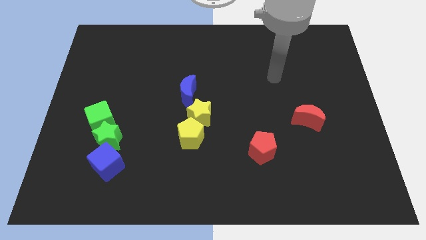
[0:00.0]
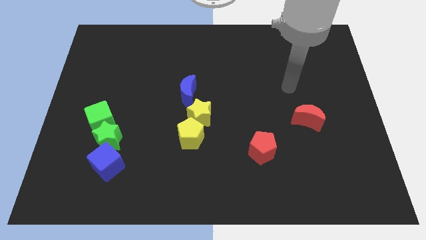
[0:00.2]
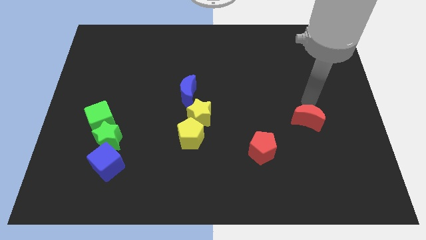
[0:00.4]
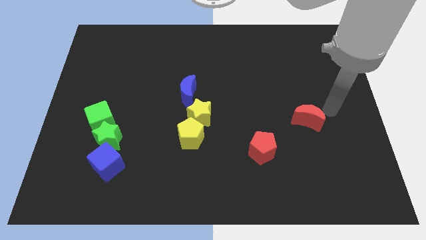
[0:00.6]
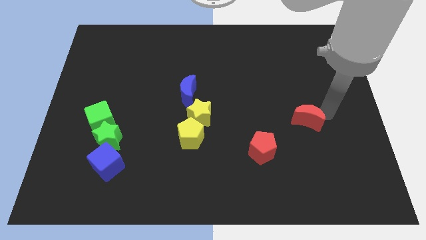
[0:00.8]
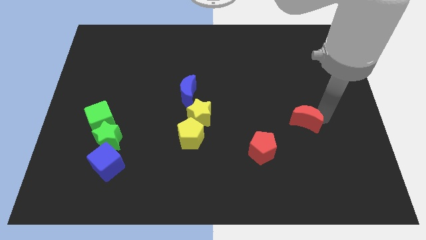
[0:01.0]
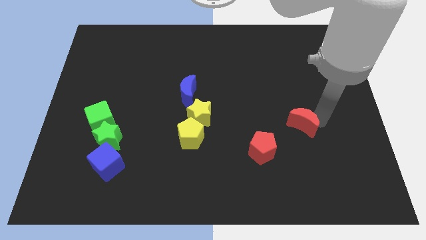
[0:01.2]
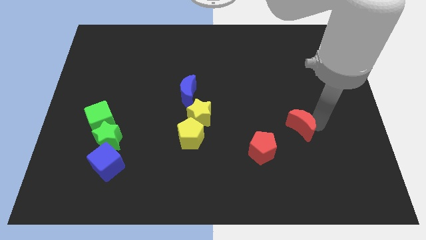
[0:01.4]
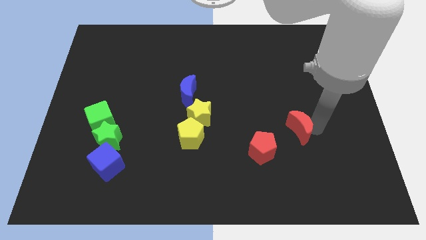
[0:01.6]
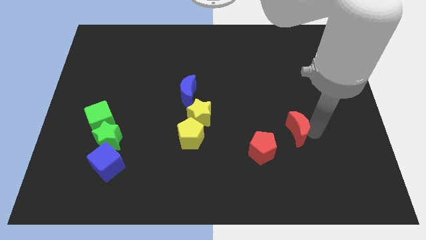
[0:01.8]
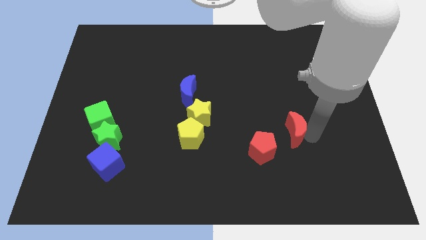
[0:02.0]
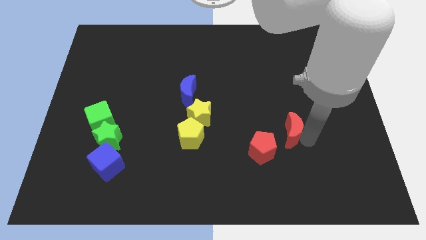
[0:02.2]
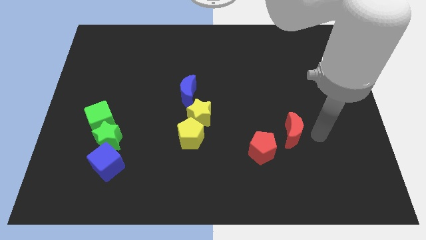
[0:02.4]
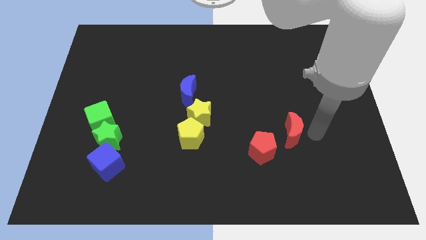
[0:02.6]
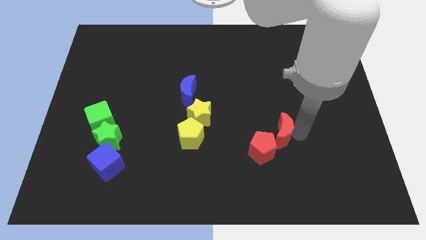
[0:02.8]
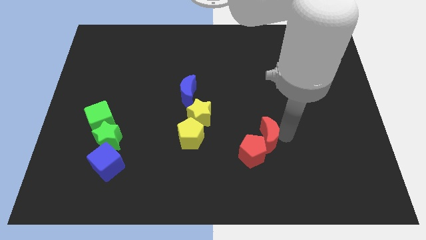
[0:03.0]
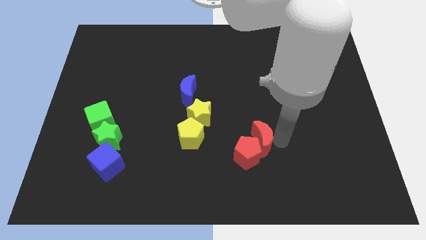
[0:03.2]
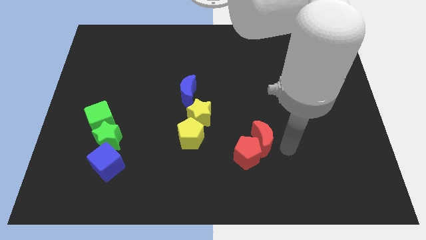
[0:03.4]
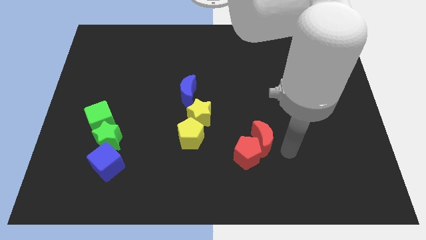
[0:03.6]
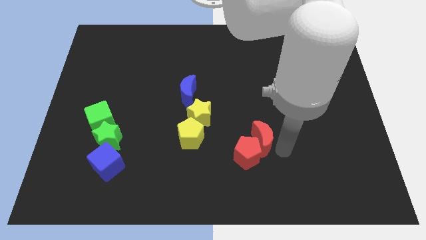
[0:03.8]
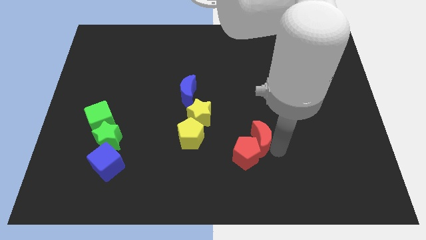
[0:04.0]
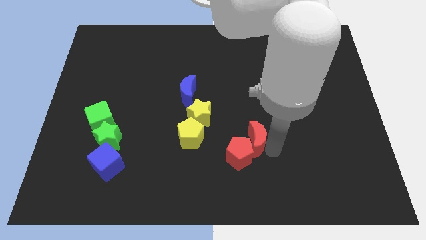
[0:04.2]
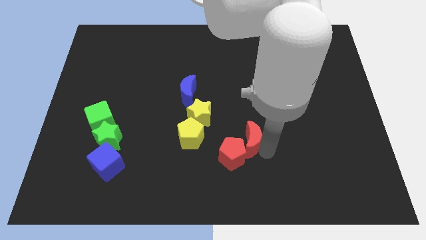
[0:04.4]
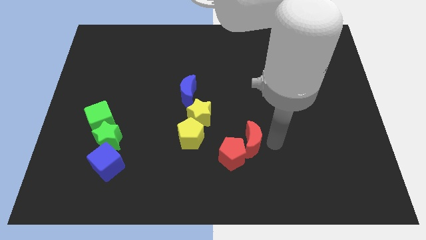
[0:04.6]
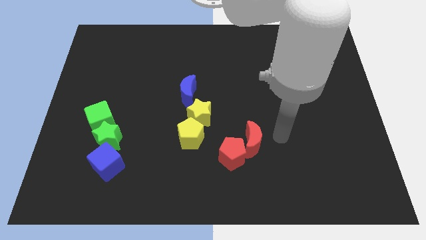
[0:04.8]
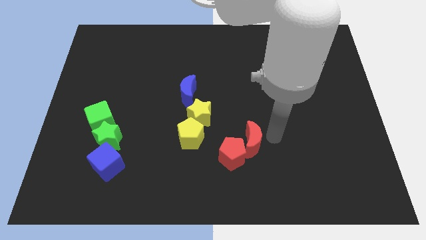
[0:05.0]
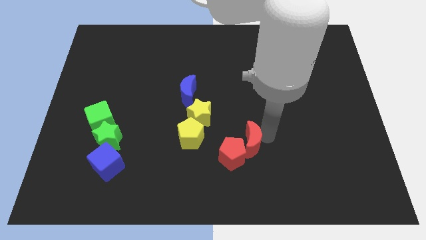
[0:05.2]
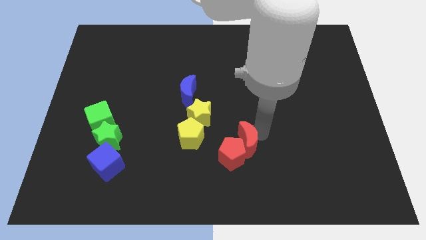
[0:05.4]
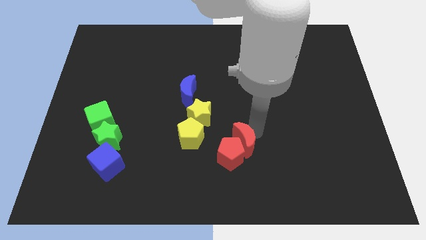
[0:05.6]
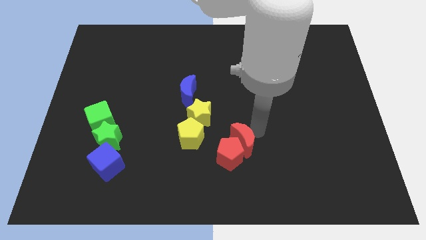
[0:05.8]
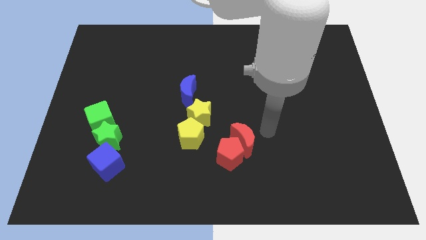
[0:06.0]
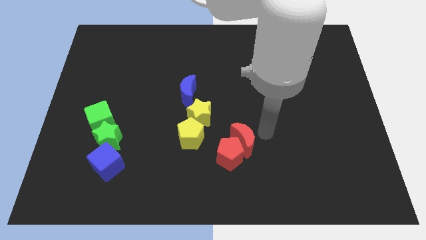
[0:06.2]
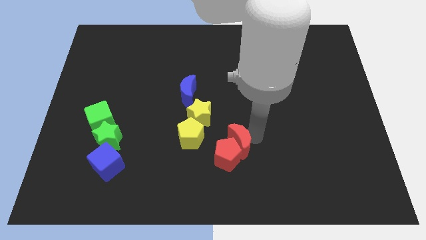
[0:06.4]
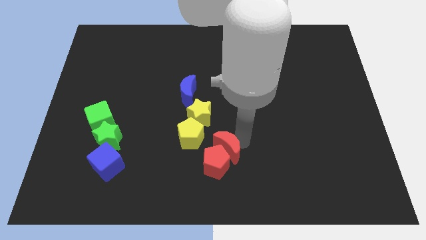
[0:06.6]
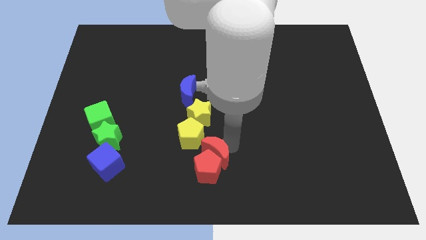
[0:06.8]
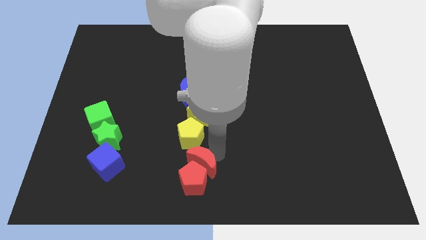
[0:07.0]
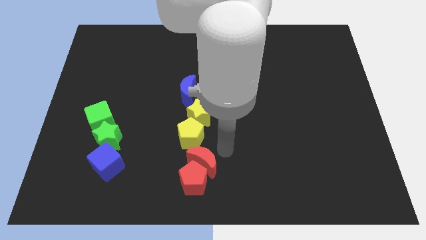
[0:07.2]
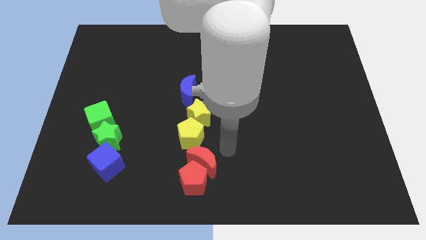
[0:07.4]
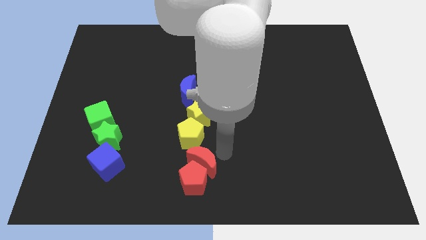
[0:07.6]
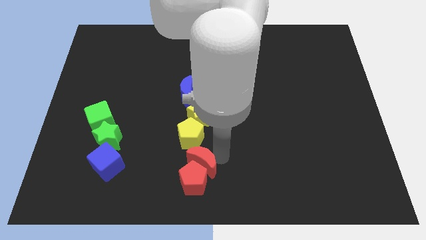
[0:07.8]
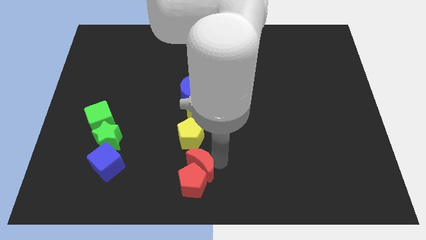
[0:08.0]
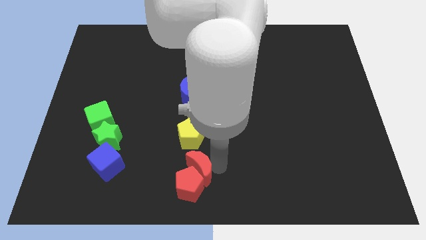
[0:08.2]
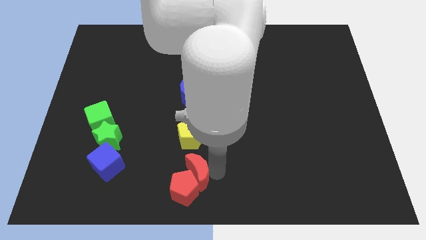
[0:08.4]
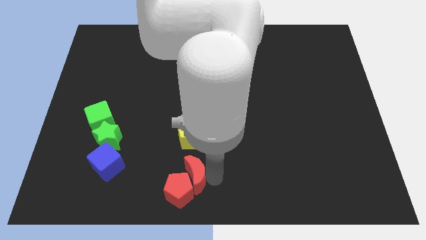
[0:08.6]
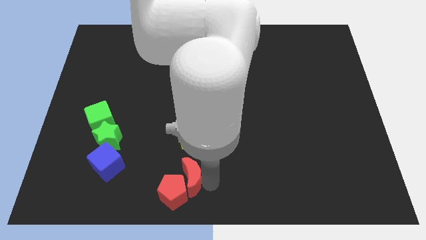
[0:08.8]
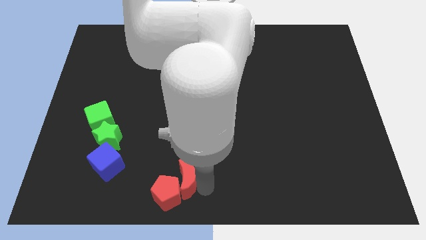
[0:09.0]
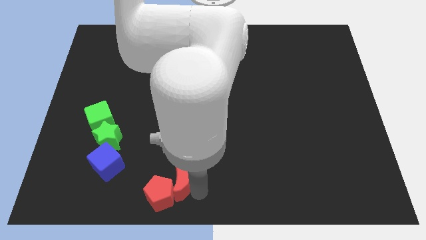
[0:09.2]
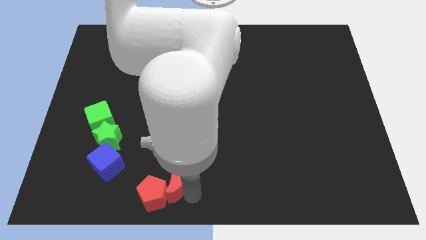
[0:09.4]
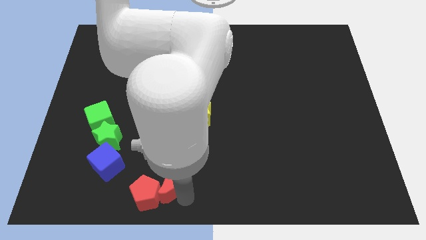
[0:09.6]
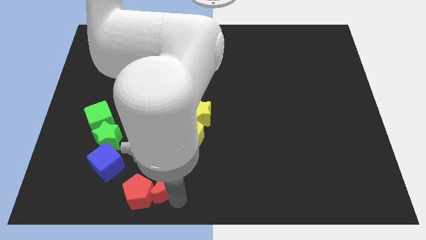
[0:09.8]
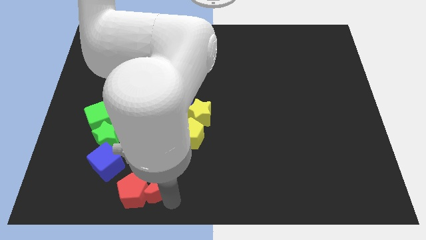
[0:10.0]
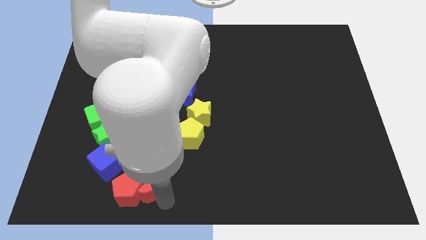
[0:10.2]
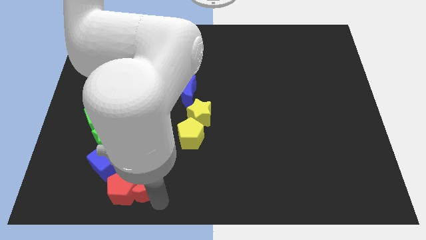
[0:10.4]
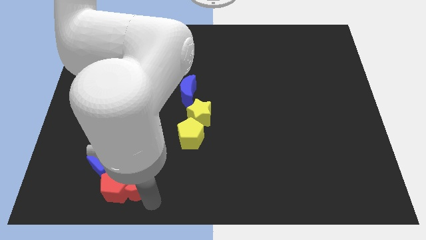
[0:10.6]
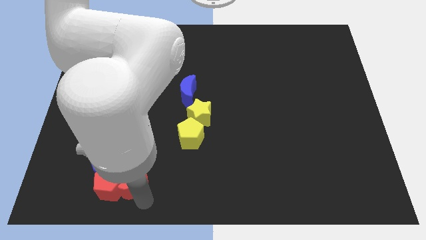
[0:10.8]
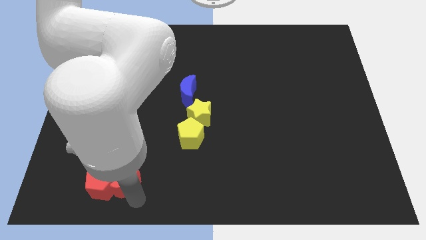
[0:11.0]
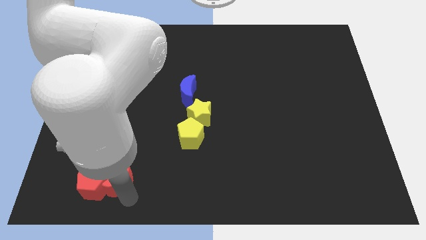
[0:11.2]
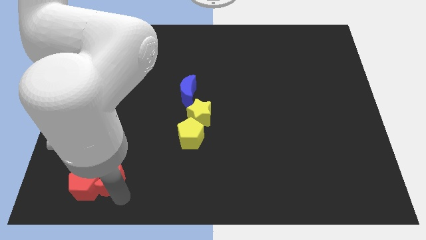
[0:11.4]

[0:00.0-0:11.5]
put the red moon close to the blue cube

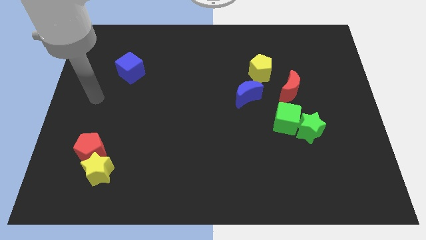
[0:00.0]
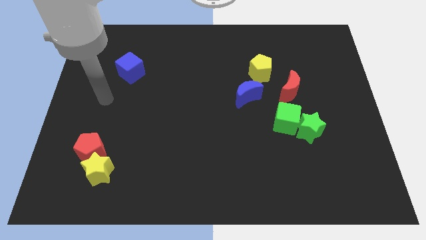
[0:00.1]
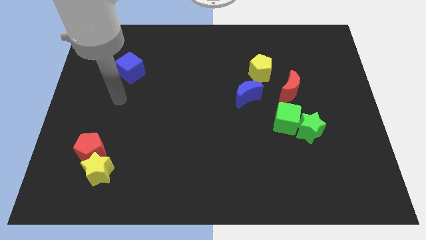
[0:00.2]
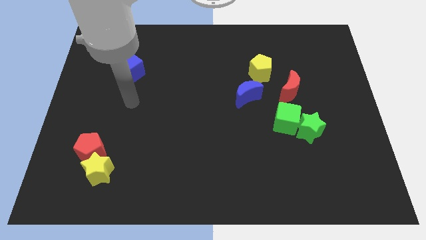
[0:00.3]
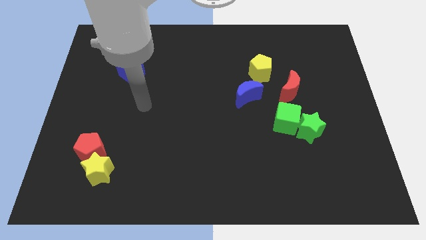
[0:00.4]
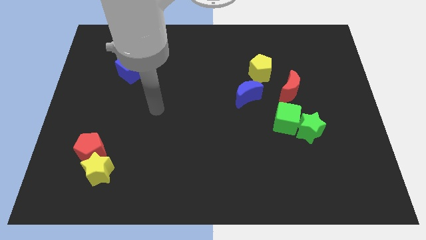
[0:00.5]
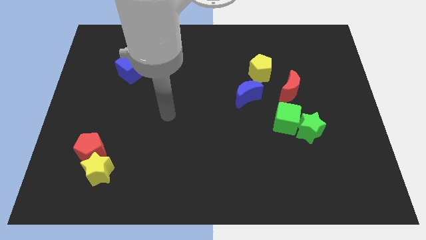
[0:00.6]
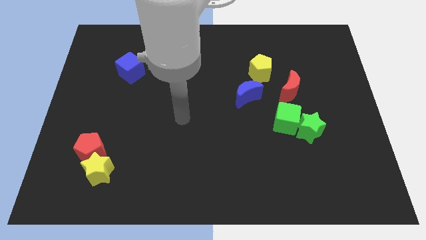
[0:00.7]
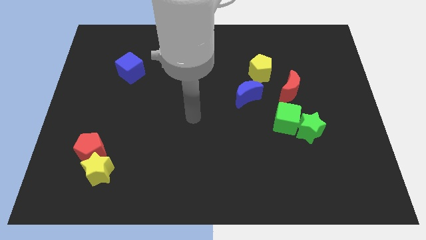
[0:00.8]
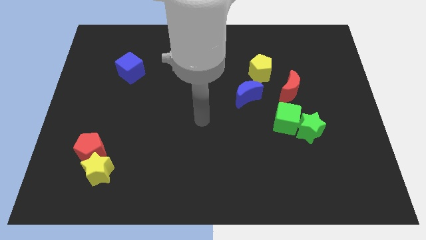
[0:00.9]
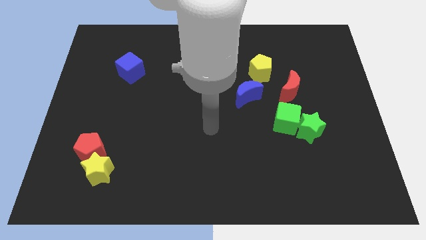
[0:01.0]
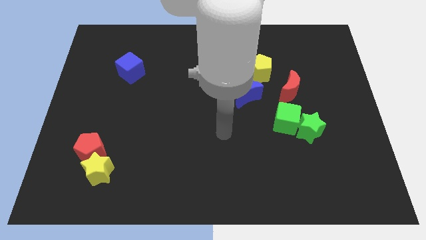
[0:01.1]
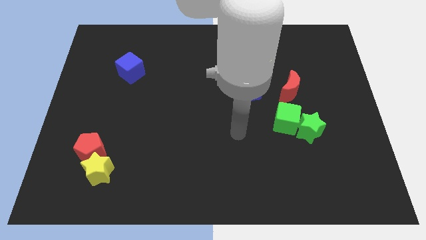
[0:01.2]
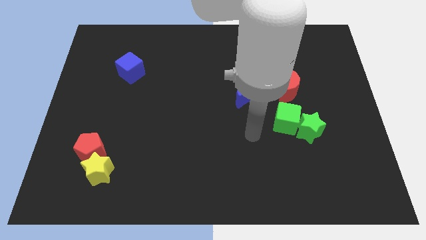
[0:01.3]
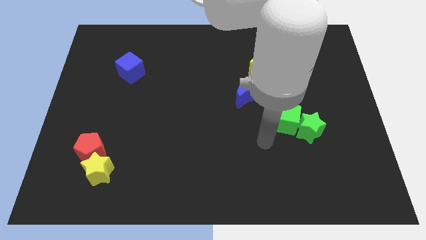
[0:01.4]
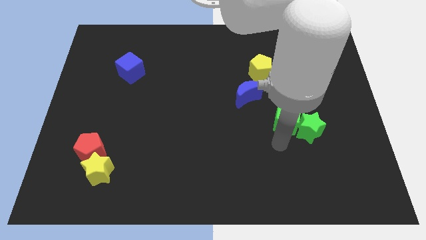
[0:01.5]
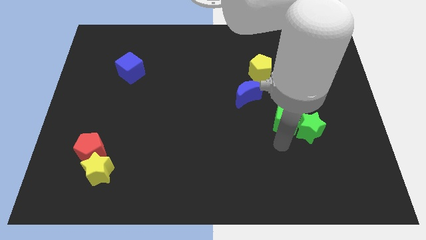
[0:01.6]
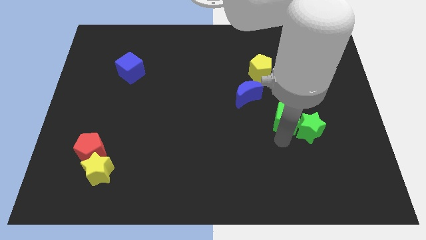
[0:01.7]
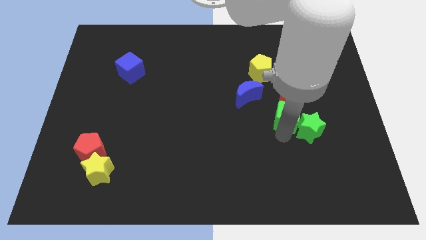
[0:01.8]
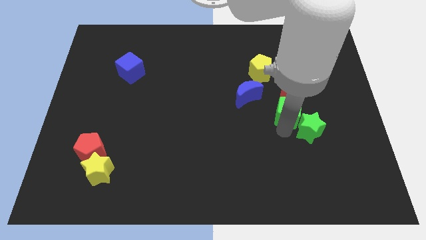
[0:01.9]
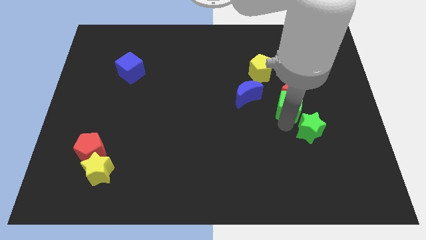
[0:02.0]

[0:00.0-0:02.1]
push the green cube towards the red moon
